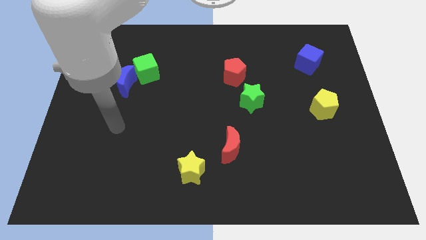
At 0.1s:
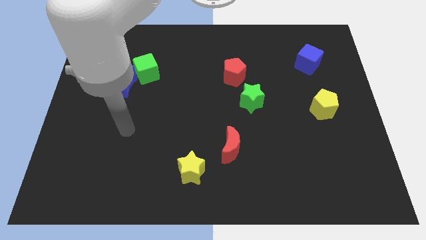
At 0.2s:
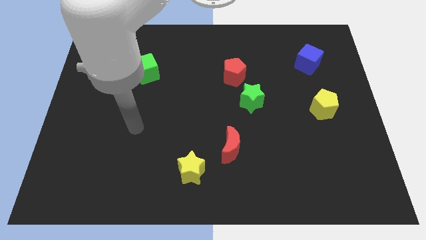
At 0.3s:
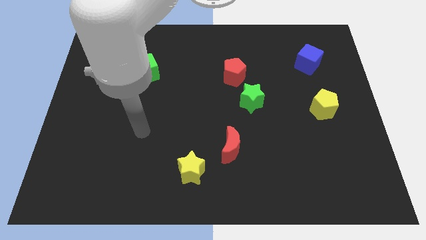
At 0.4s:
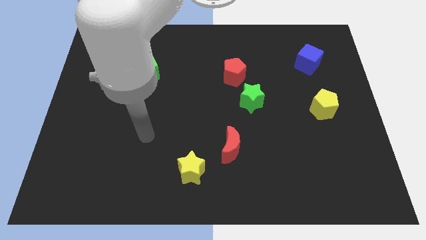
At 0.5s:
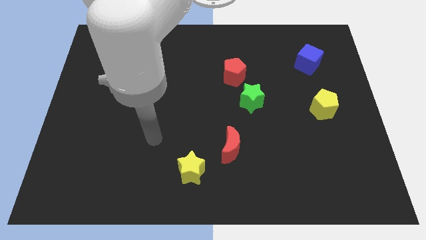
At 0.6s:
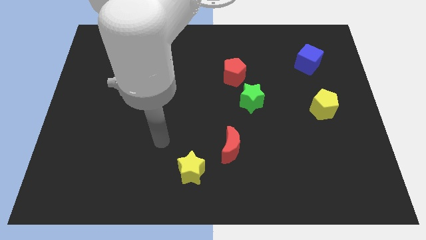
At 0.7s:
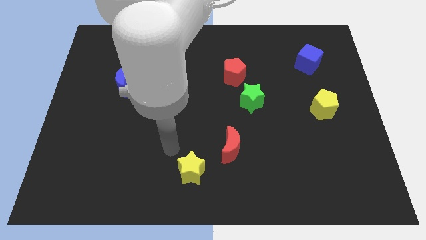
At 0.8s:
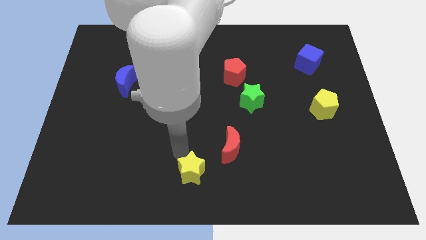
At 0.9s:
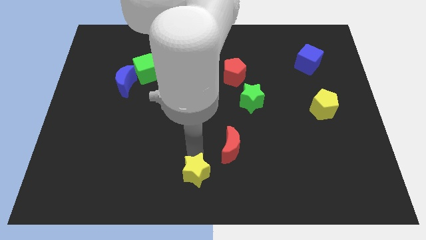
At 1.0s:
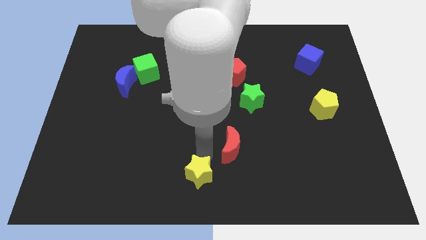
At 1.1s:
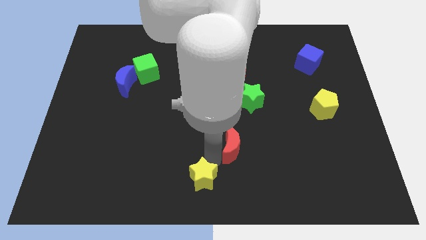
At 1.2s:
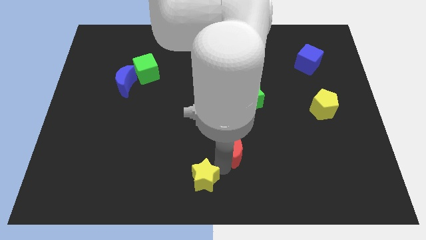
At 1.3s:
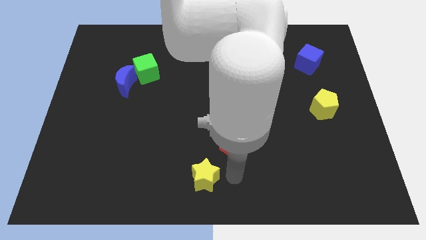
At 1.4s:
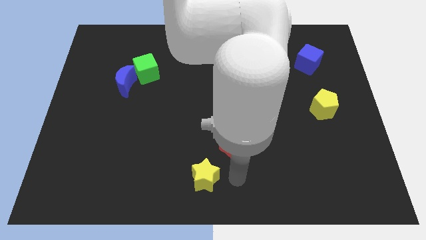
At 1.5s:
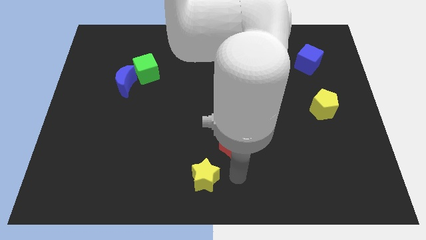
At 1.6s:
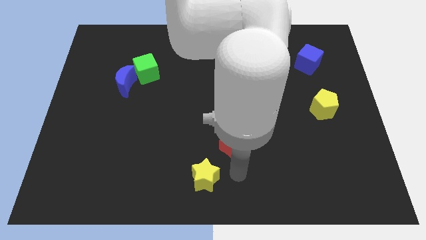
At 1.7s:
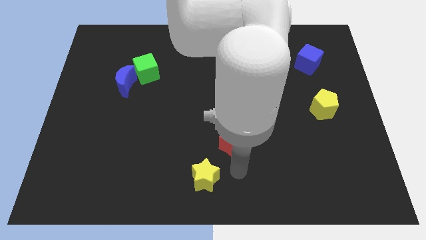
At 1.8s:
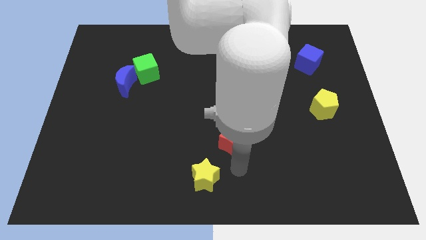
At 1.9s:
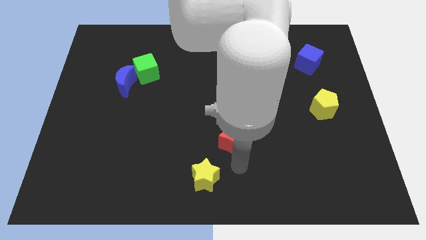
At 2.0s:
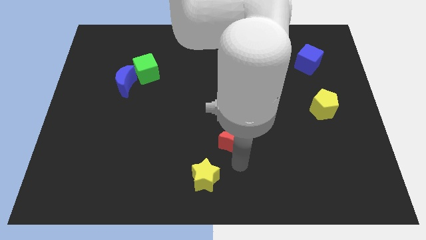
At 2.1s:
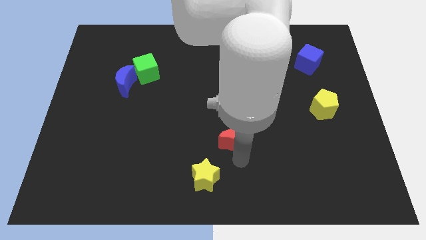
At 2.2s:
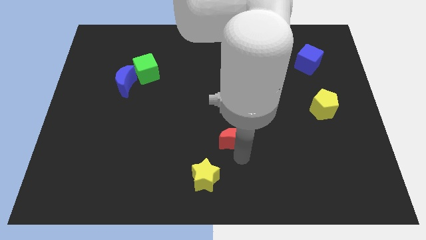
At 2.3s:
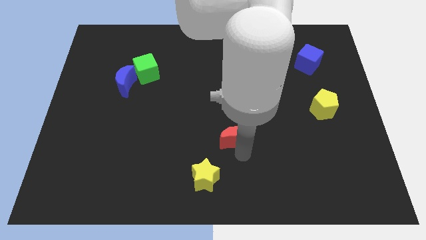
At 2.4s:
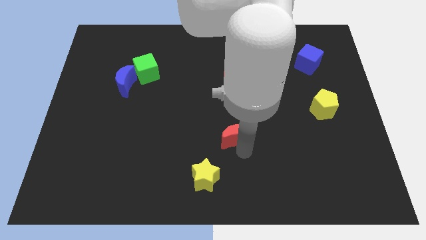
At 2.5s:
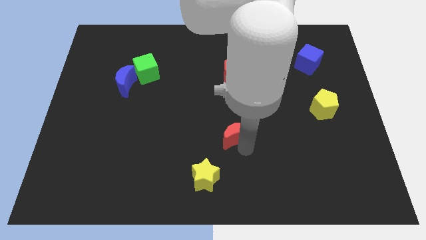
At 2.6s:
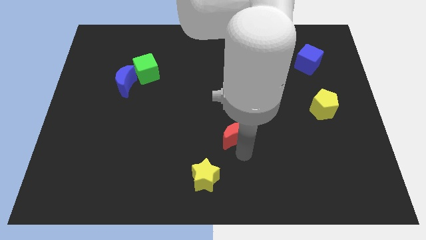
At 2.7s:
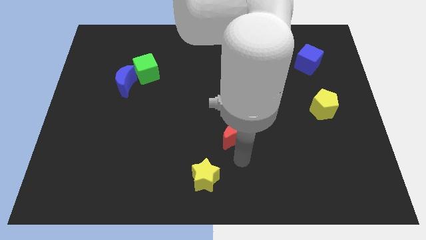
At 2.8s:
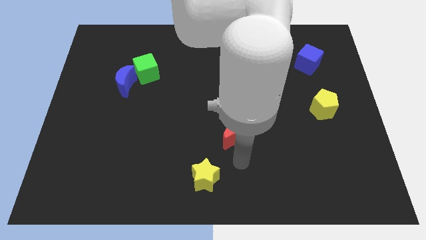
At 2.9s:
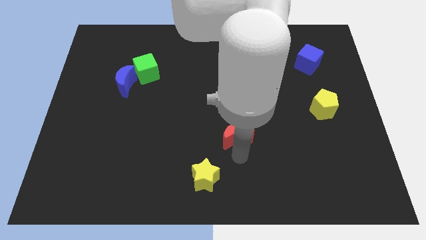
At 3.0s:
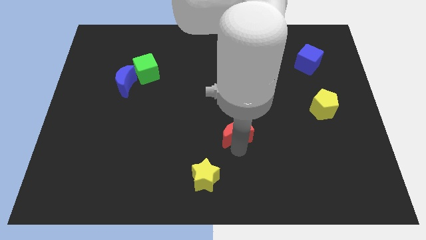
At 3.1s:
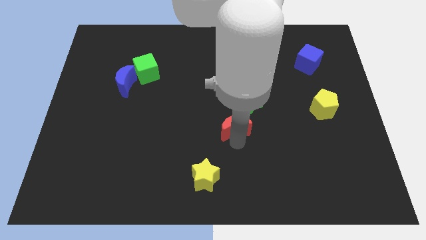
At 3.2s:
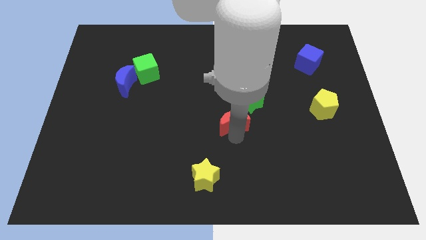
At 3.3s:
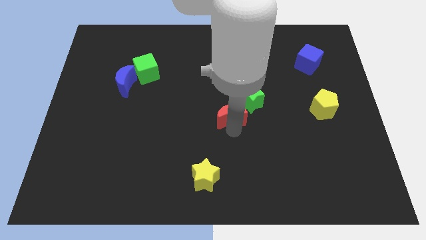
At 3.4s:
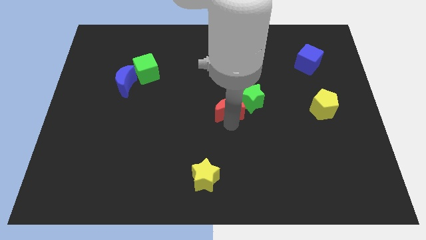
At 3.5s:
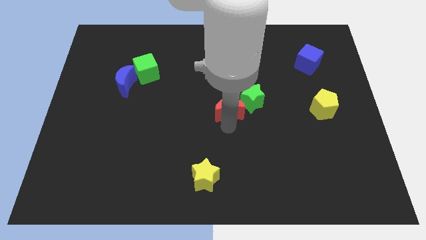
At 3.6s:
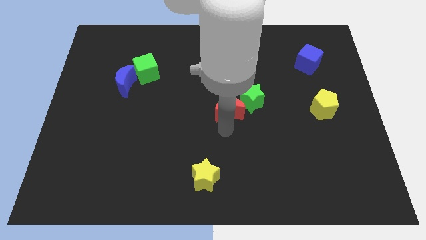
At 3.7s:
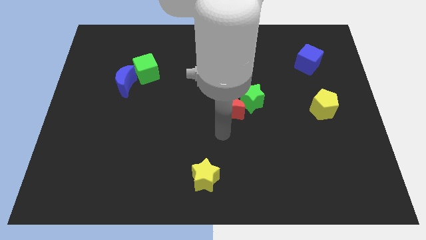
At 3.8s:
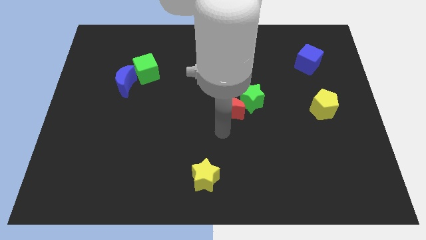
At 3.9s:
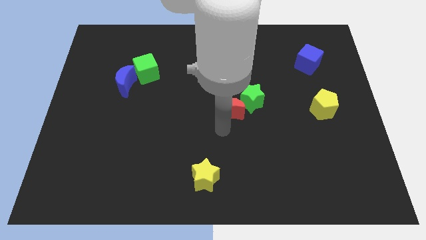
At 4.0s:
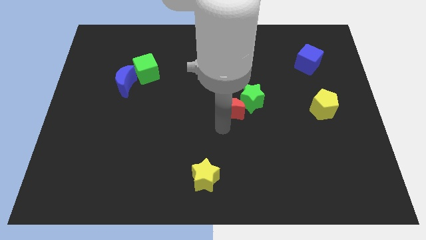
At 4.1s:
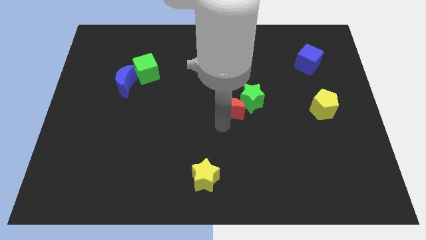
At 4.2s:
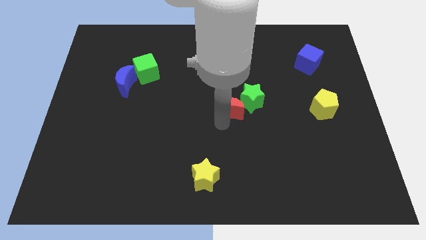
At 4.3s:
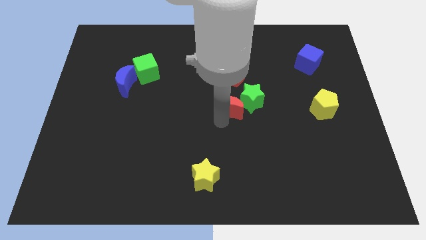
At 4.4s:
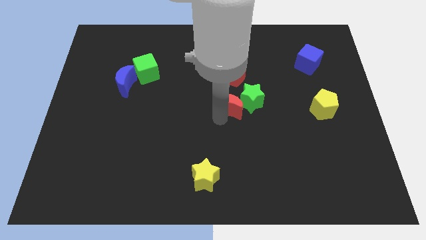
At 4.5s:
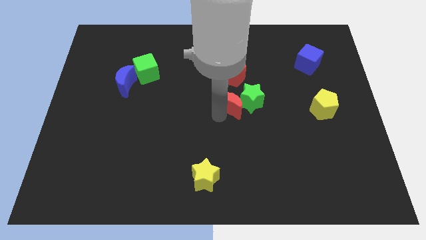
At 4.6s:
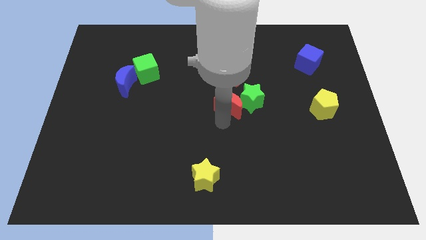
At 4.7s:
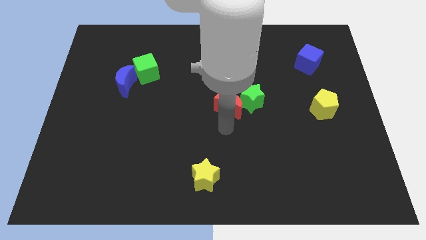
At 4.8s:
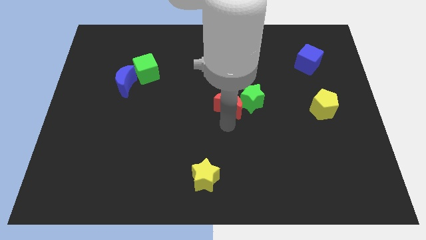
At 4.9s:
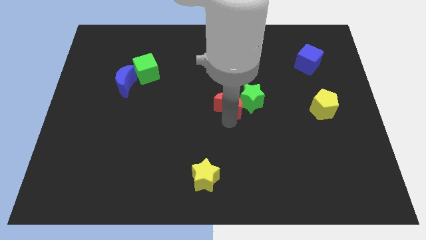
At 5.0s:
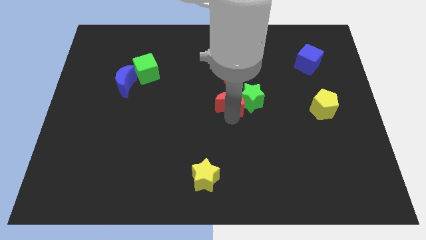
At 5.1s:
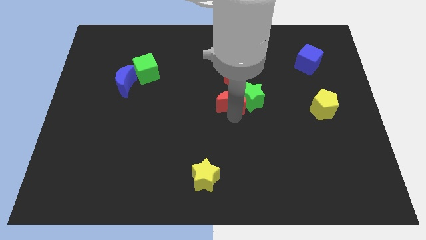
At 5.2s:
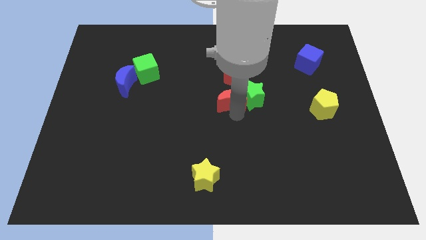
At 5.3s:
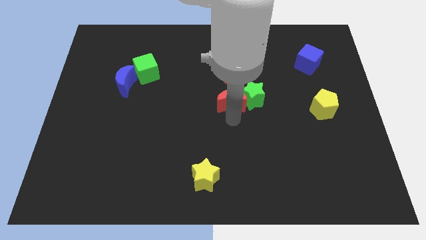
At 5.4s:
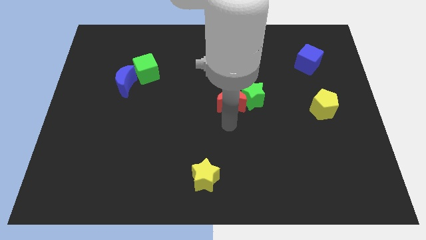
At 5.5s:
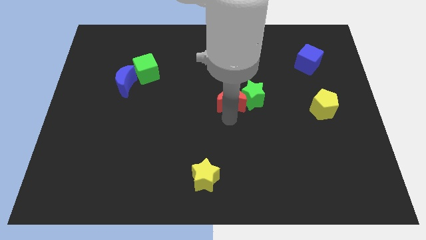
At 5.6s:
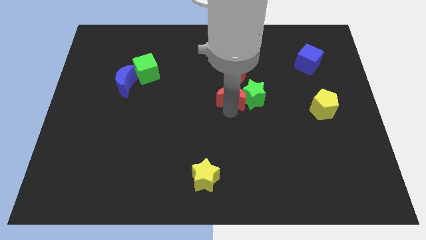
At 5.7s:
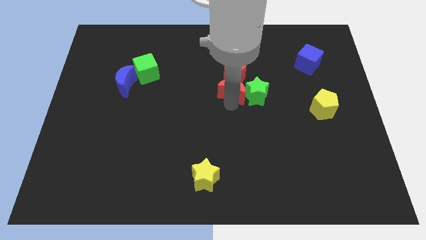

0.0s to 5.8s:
slide the red moon next to the red pentagon

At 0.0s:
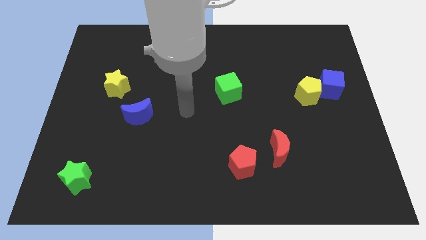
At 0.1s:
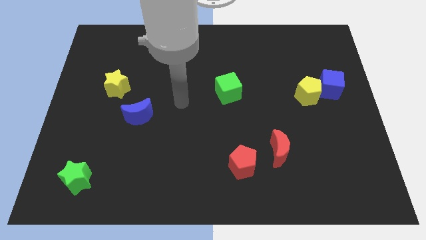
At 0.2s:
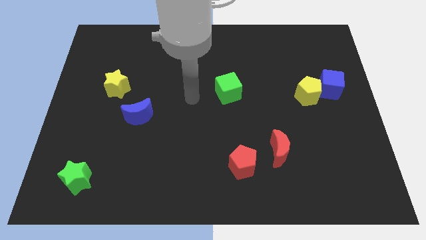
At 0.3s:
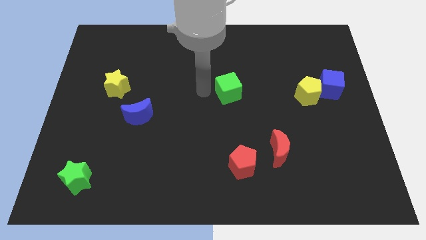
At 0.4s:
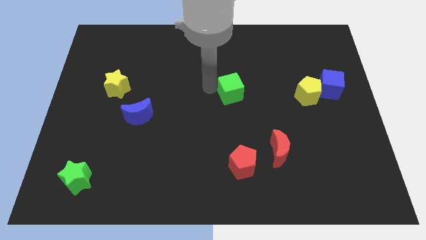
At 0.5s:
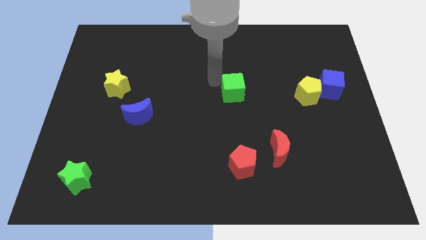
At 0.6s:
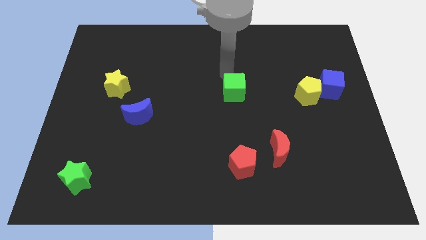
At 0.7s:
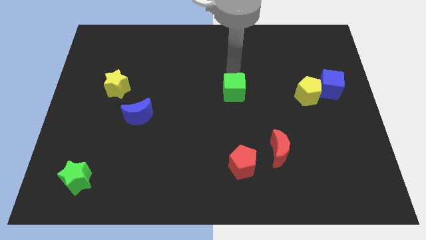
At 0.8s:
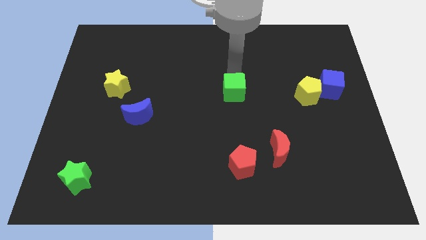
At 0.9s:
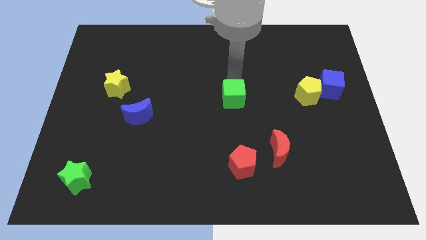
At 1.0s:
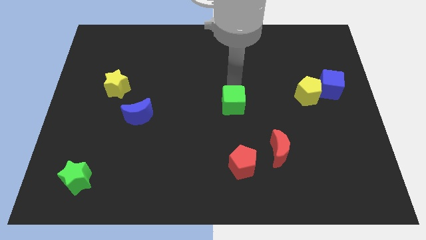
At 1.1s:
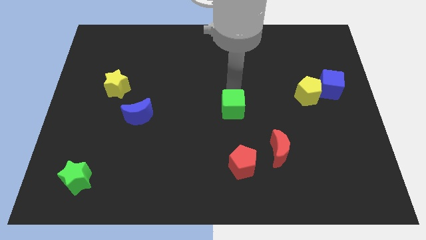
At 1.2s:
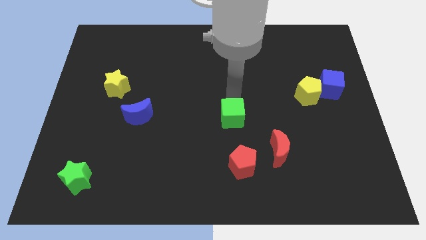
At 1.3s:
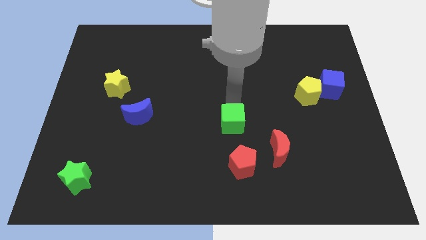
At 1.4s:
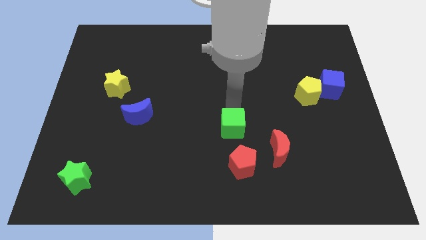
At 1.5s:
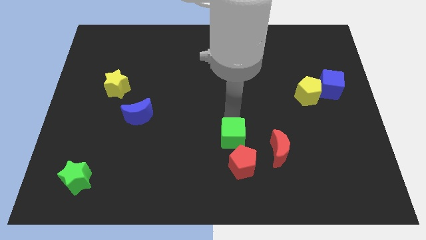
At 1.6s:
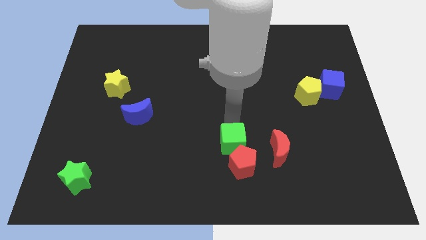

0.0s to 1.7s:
move the green cube to the red pentagon
